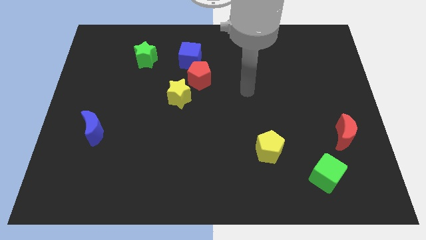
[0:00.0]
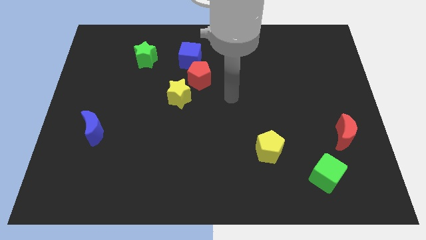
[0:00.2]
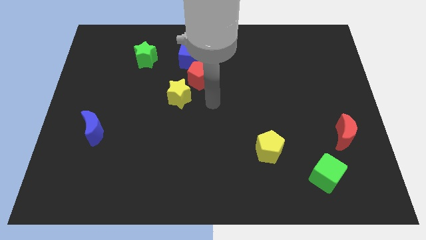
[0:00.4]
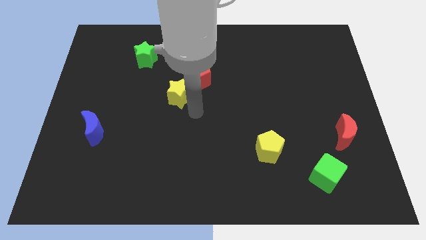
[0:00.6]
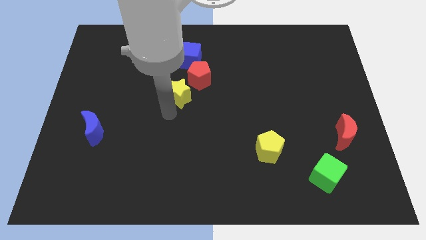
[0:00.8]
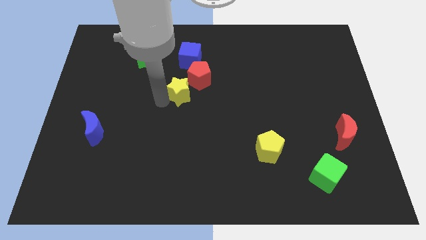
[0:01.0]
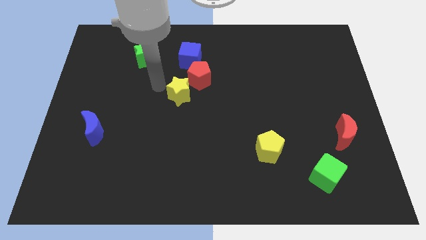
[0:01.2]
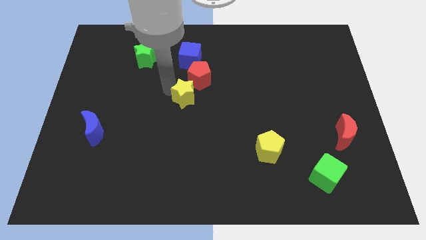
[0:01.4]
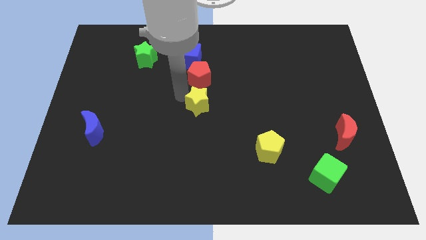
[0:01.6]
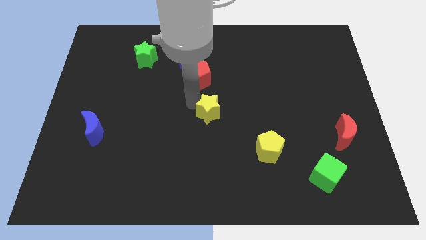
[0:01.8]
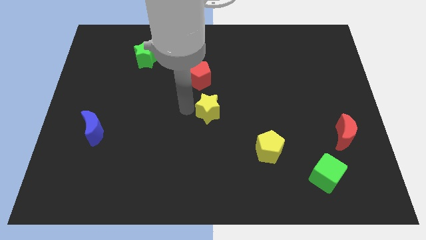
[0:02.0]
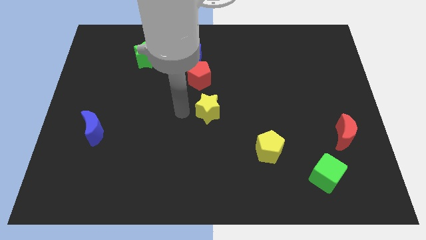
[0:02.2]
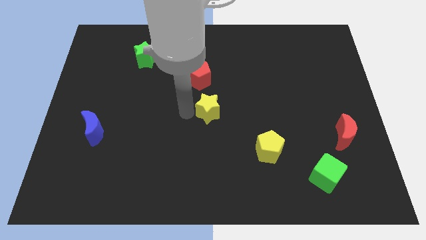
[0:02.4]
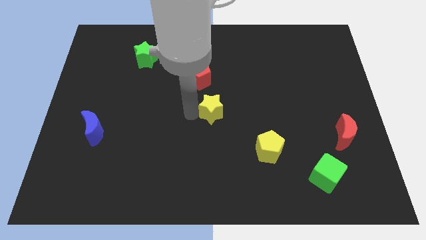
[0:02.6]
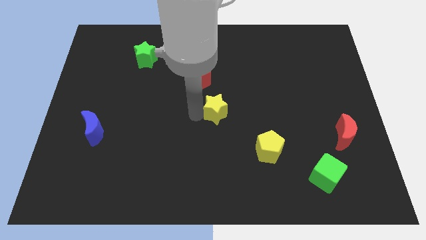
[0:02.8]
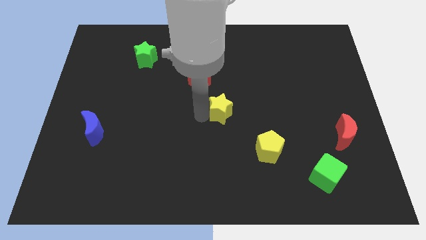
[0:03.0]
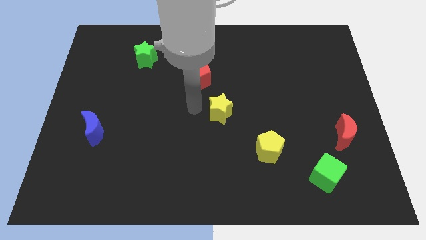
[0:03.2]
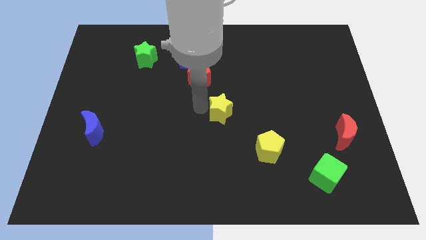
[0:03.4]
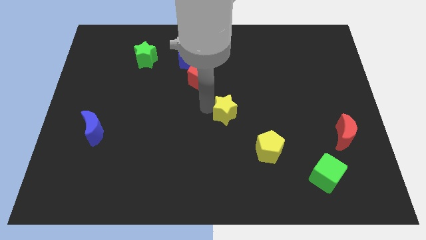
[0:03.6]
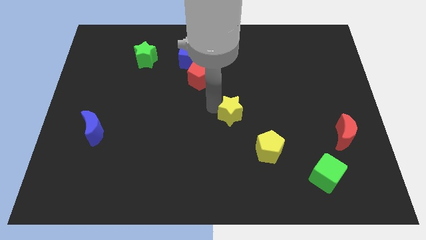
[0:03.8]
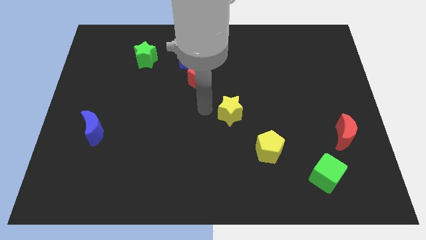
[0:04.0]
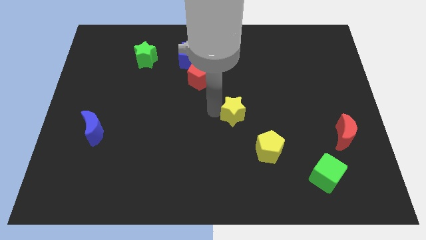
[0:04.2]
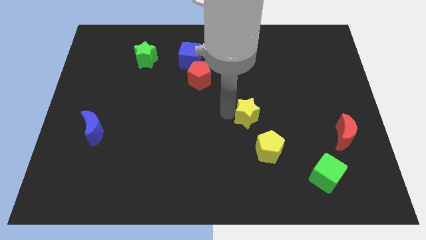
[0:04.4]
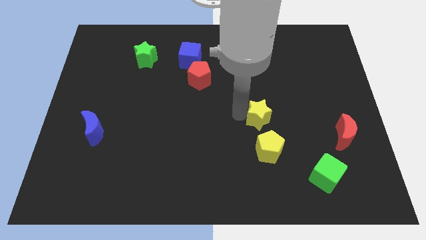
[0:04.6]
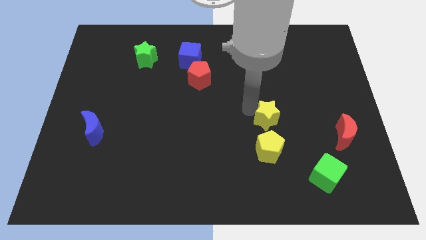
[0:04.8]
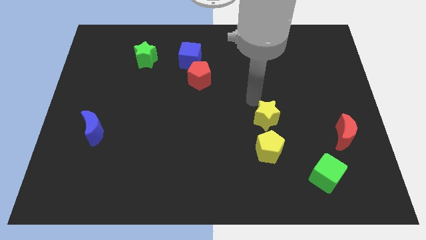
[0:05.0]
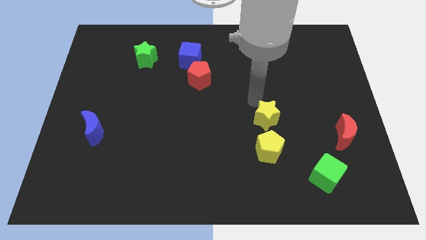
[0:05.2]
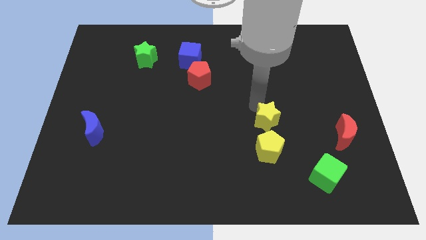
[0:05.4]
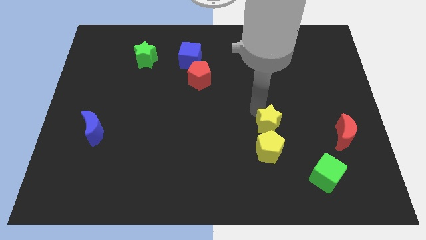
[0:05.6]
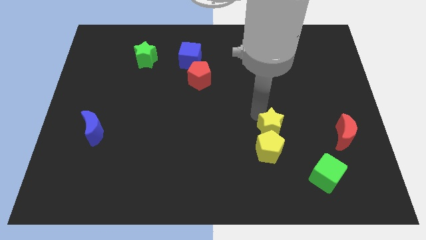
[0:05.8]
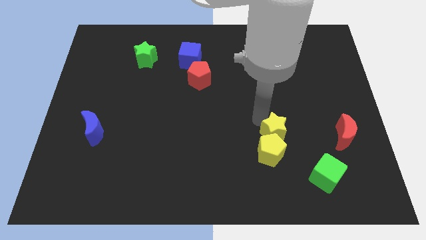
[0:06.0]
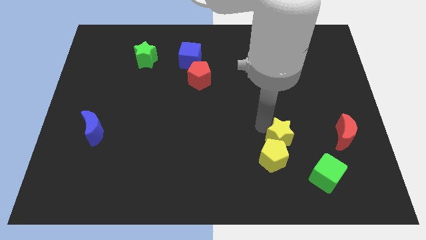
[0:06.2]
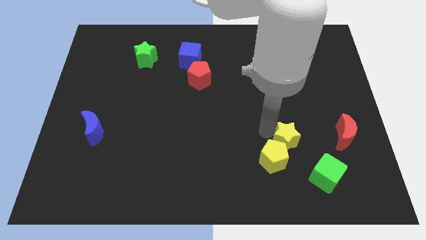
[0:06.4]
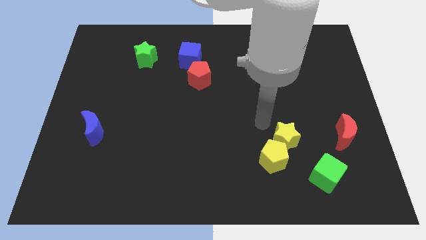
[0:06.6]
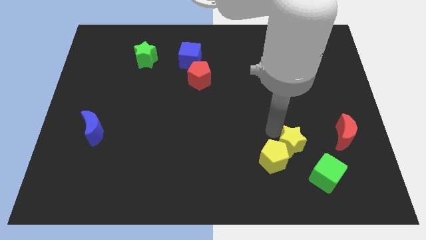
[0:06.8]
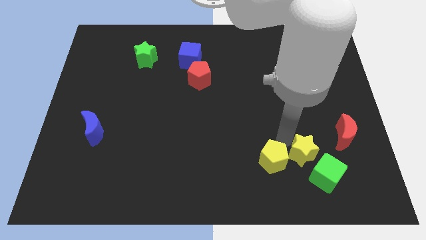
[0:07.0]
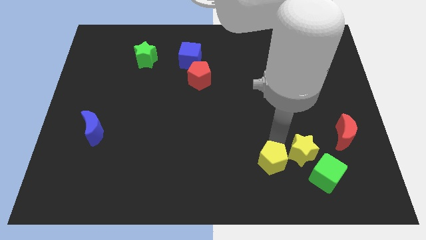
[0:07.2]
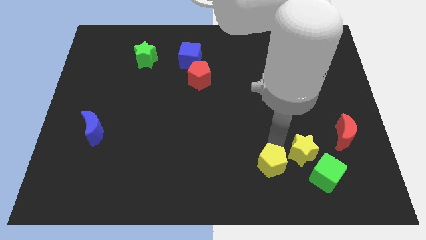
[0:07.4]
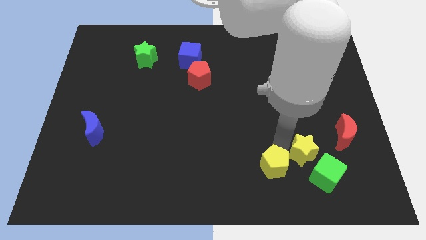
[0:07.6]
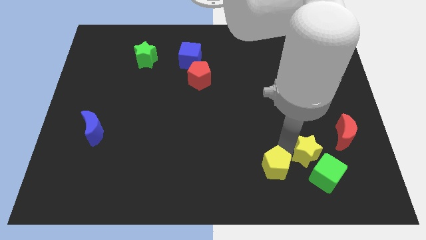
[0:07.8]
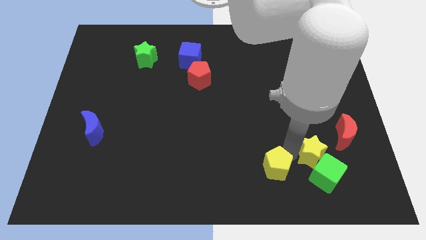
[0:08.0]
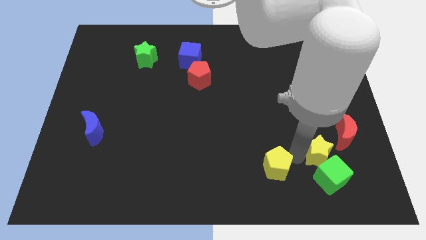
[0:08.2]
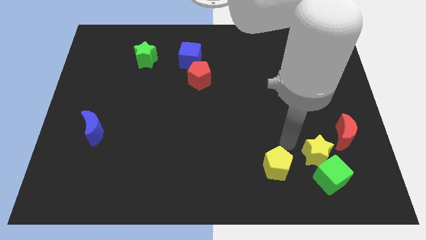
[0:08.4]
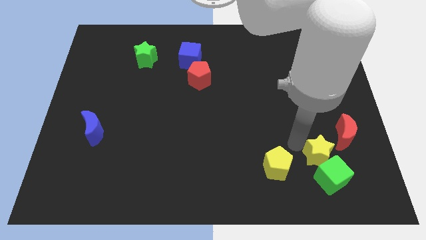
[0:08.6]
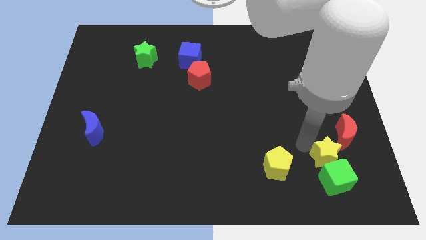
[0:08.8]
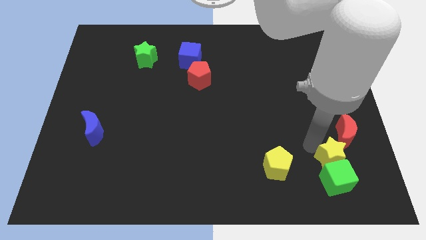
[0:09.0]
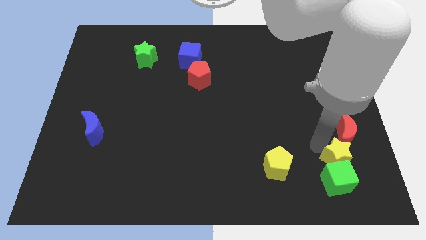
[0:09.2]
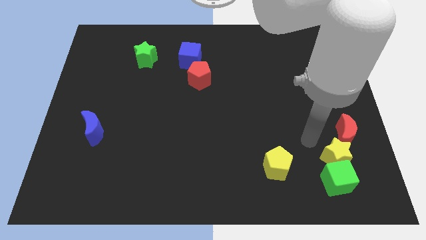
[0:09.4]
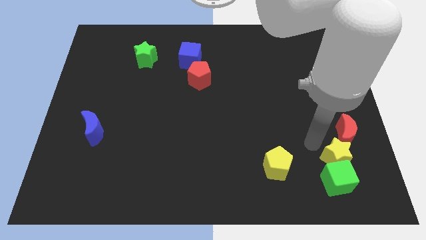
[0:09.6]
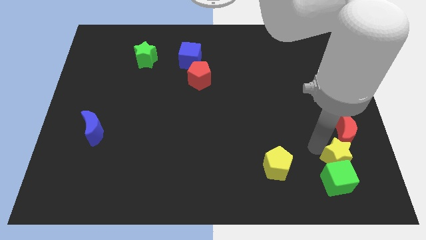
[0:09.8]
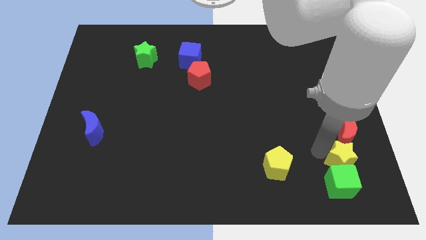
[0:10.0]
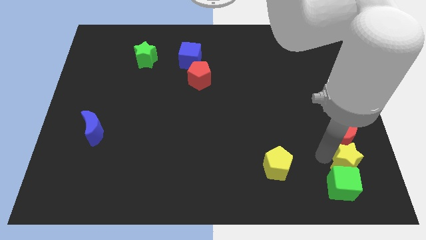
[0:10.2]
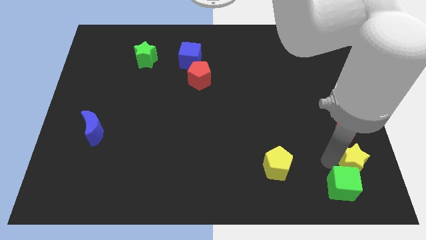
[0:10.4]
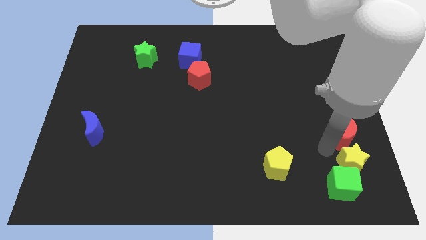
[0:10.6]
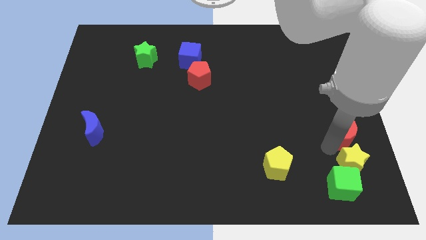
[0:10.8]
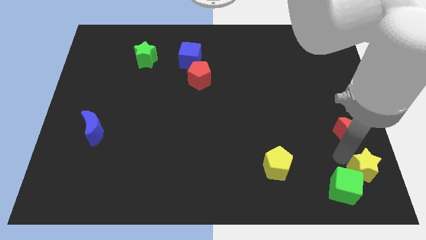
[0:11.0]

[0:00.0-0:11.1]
push the yellow star to the bottom right

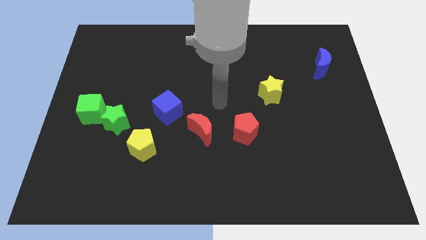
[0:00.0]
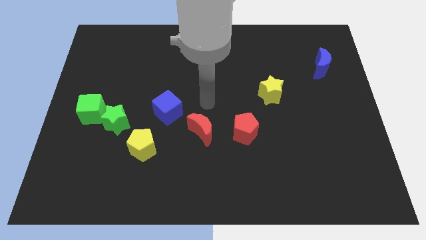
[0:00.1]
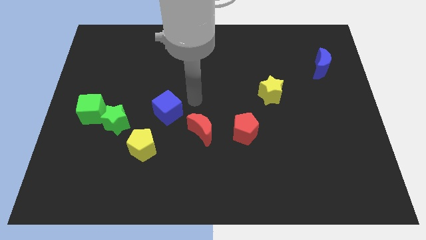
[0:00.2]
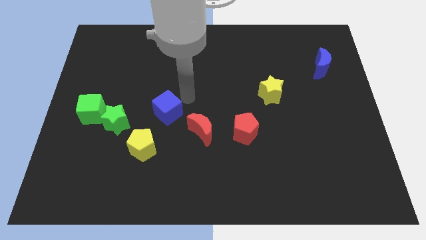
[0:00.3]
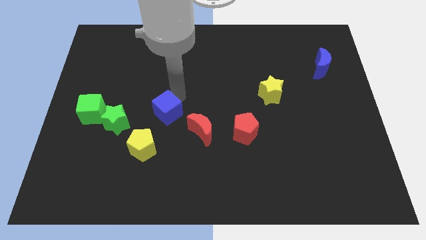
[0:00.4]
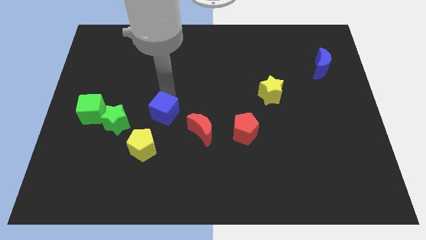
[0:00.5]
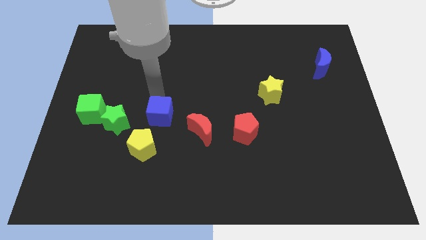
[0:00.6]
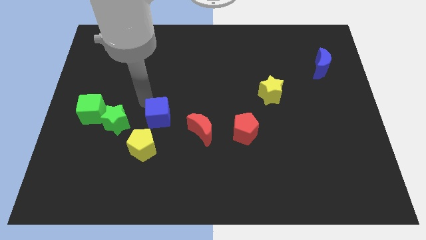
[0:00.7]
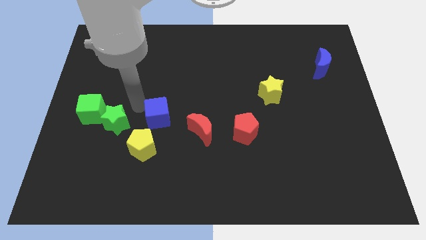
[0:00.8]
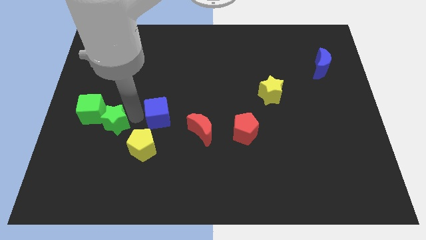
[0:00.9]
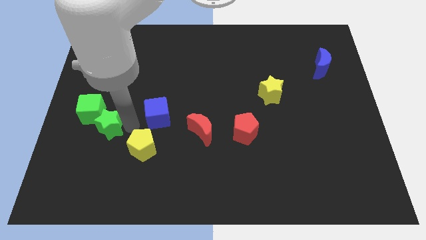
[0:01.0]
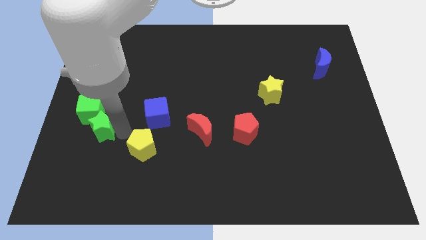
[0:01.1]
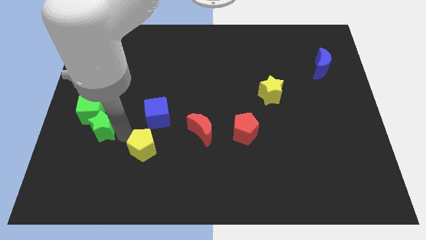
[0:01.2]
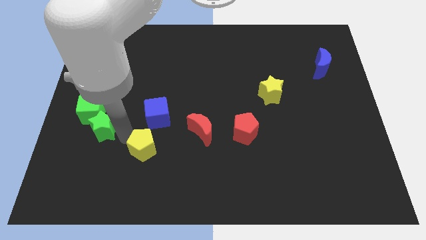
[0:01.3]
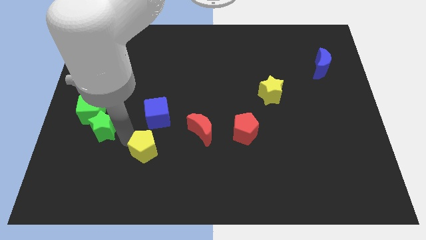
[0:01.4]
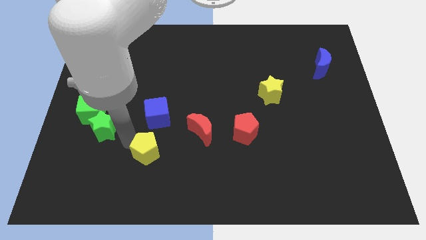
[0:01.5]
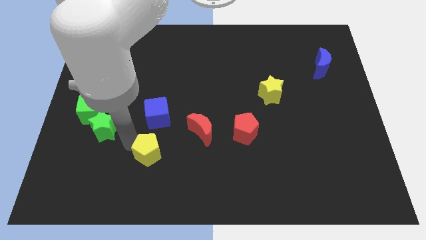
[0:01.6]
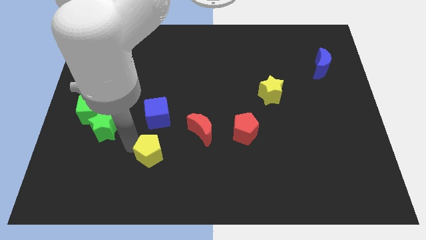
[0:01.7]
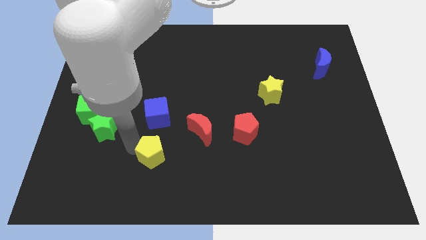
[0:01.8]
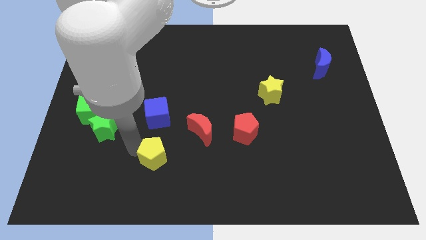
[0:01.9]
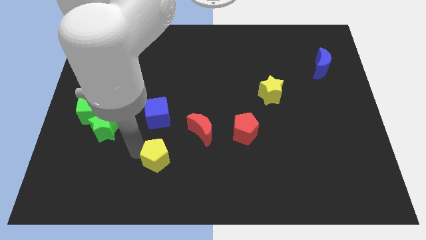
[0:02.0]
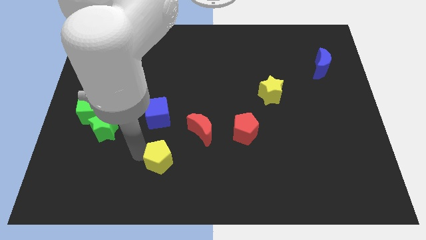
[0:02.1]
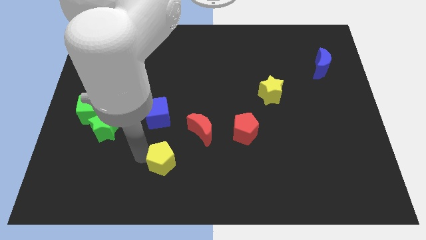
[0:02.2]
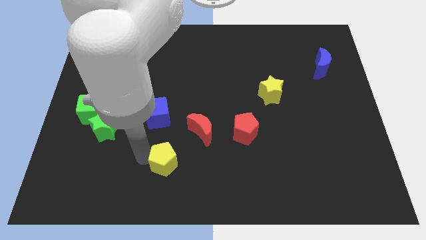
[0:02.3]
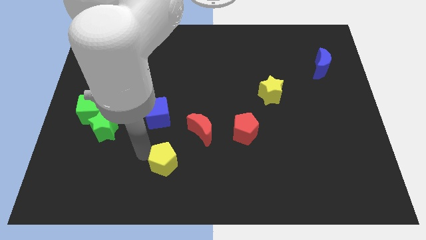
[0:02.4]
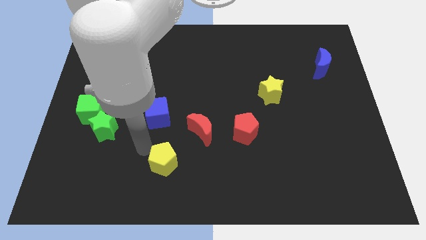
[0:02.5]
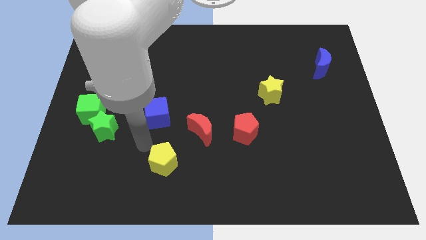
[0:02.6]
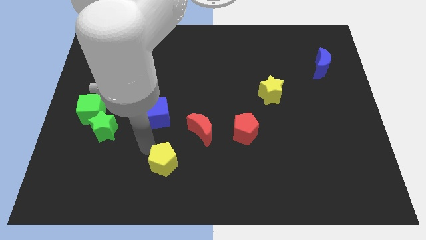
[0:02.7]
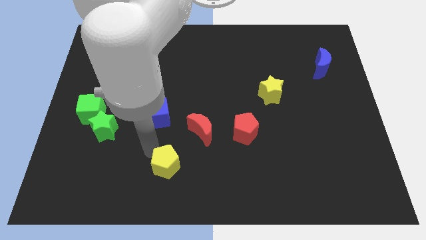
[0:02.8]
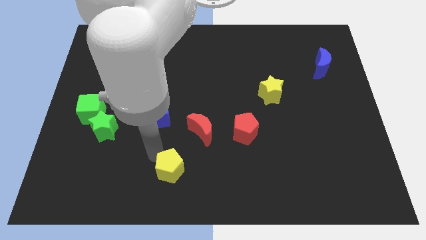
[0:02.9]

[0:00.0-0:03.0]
move the yellow pentagon to the bottom side
